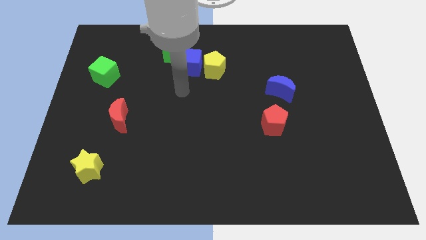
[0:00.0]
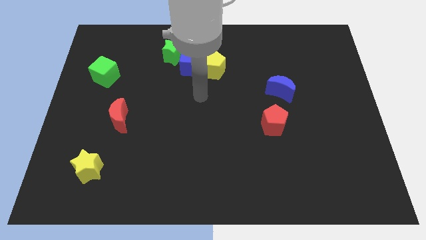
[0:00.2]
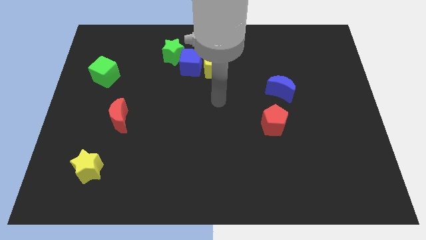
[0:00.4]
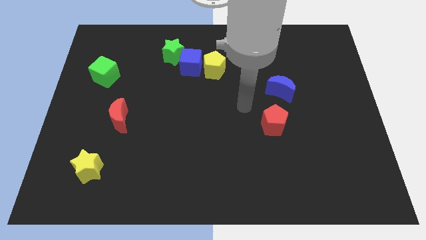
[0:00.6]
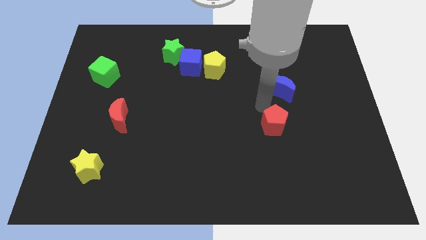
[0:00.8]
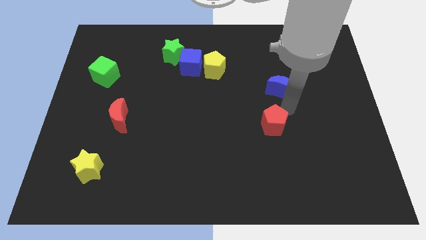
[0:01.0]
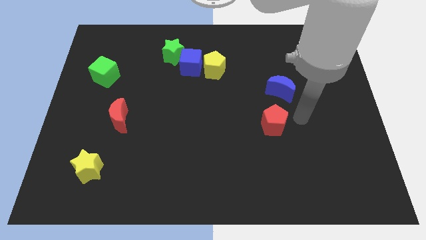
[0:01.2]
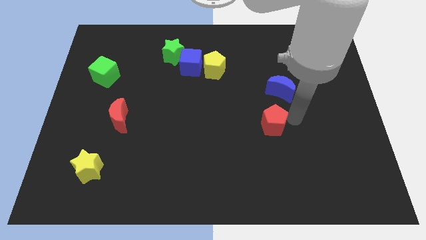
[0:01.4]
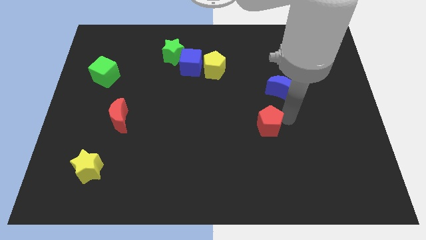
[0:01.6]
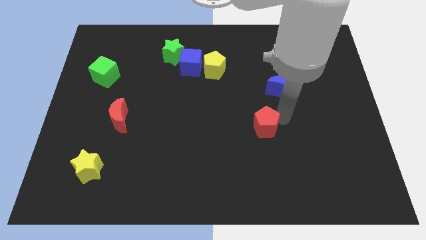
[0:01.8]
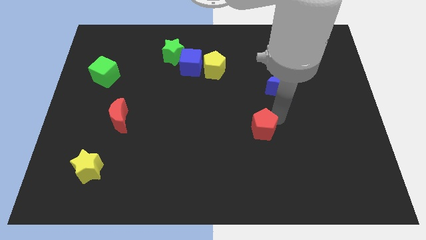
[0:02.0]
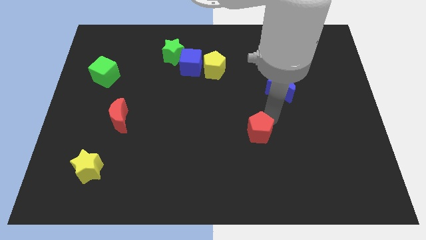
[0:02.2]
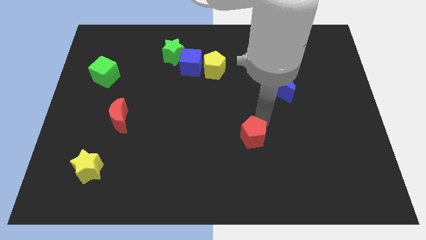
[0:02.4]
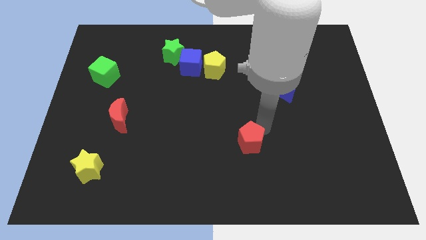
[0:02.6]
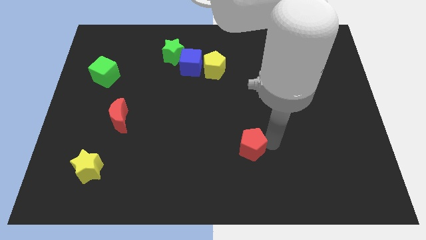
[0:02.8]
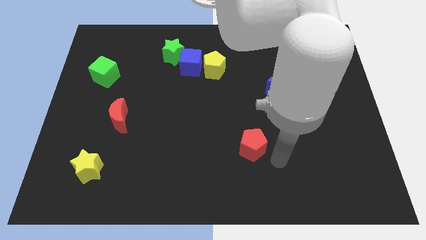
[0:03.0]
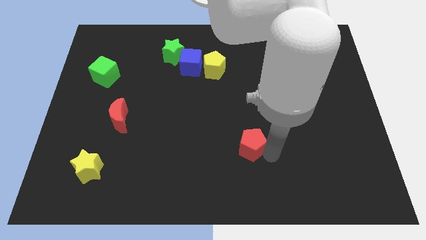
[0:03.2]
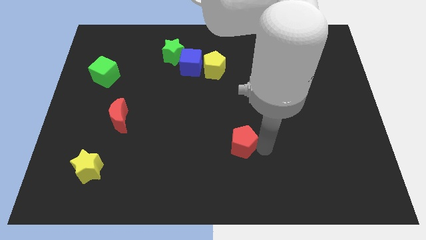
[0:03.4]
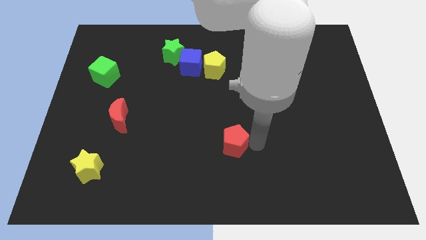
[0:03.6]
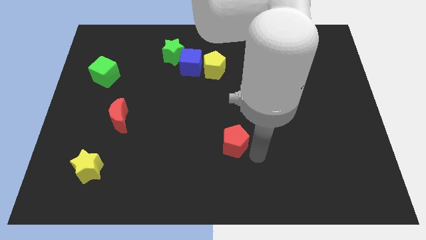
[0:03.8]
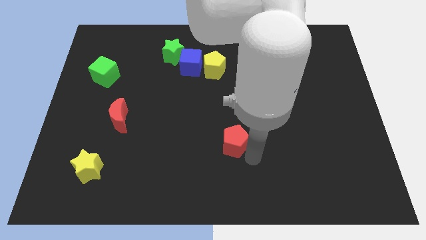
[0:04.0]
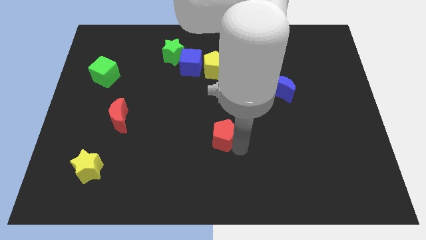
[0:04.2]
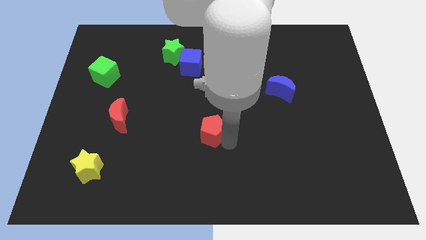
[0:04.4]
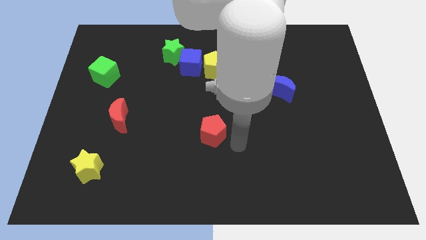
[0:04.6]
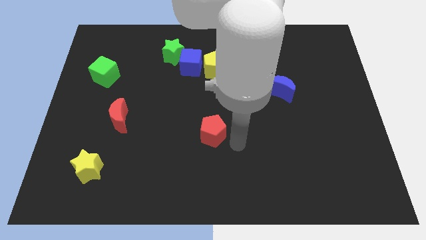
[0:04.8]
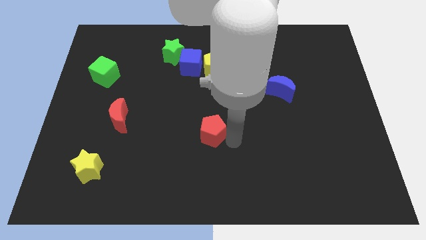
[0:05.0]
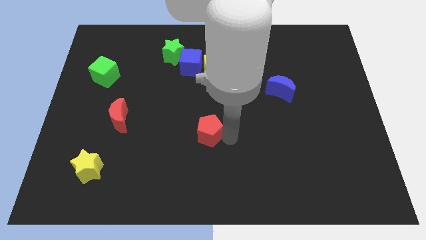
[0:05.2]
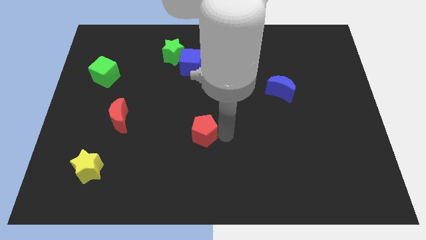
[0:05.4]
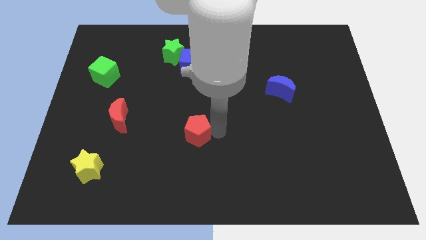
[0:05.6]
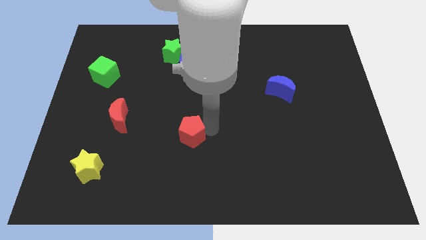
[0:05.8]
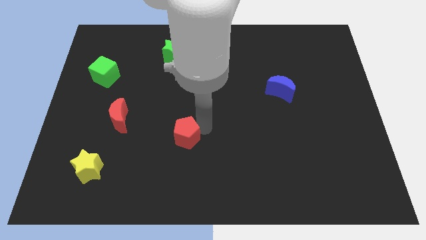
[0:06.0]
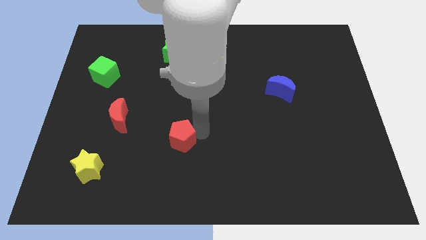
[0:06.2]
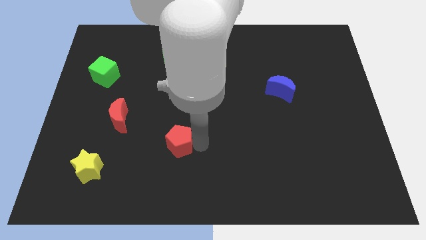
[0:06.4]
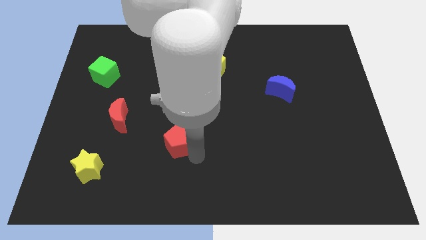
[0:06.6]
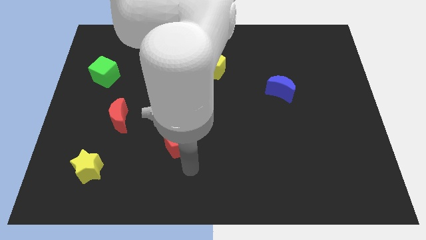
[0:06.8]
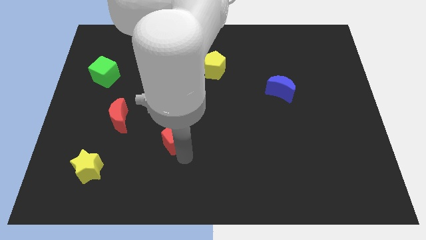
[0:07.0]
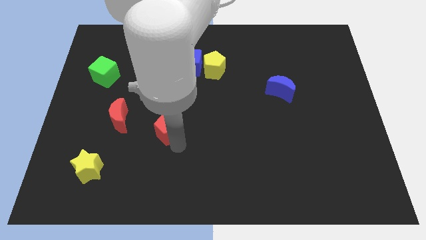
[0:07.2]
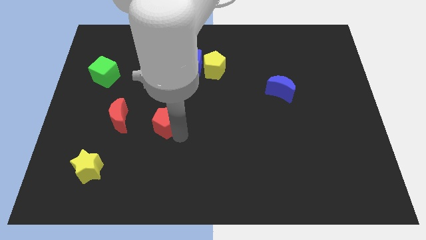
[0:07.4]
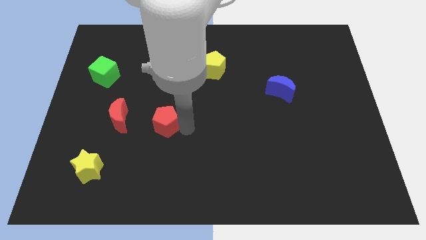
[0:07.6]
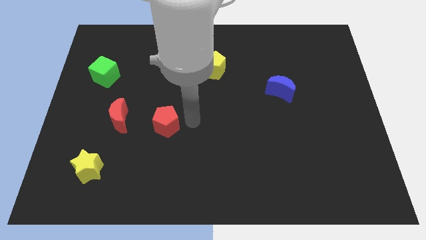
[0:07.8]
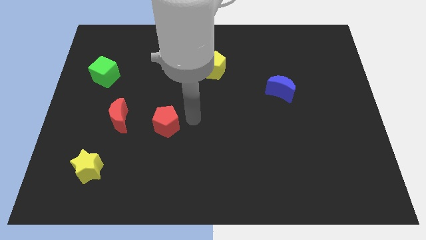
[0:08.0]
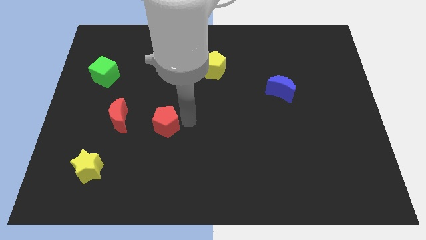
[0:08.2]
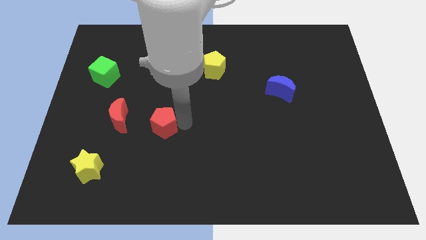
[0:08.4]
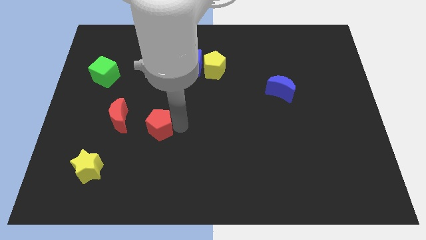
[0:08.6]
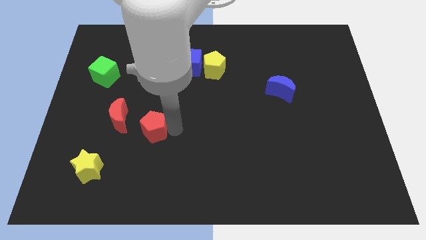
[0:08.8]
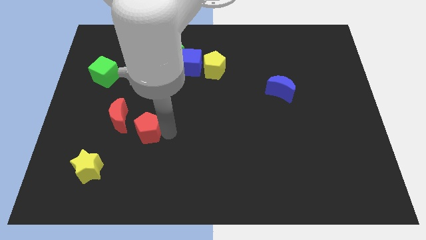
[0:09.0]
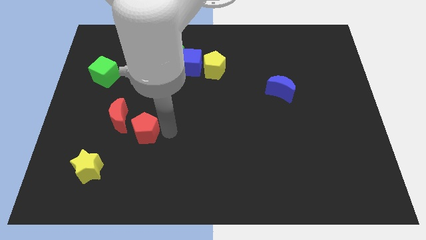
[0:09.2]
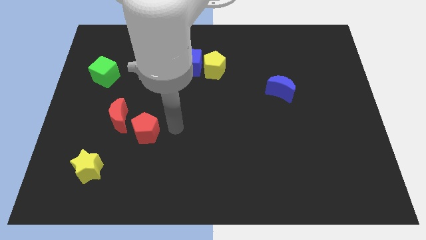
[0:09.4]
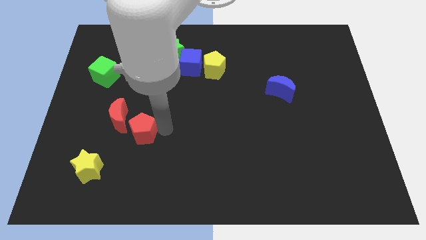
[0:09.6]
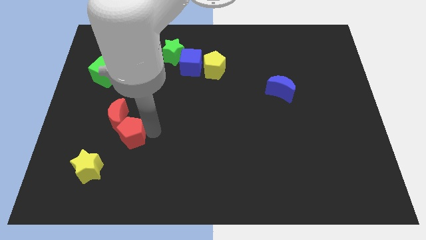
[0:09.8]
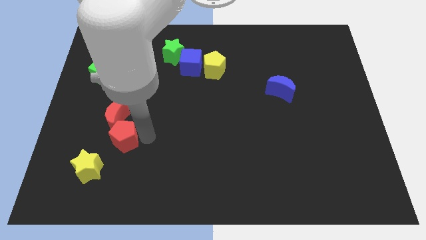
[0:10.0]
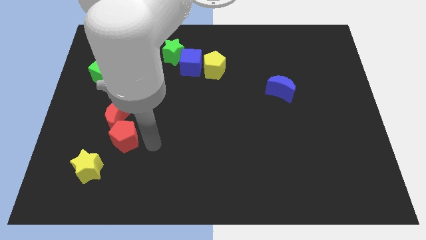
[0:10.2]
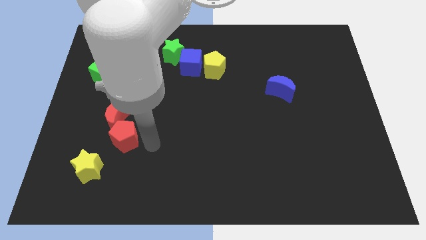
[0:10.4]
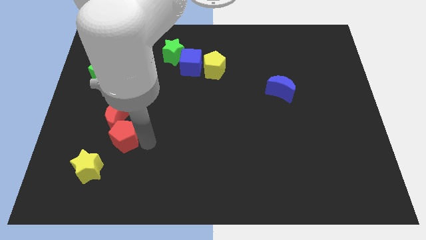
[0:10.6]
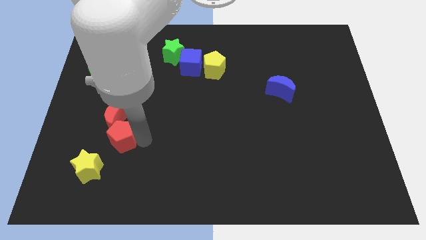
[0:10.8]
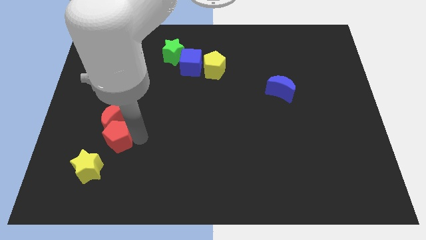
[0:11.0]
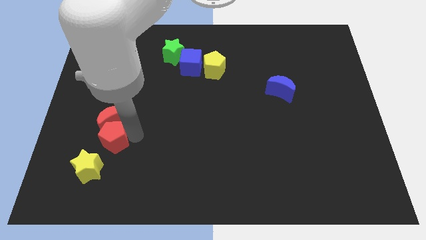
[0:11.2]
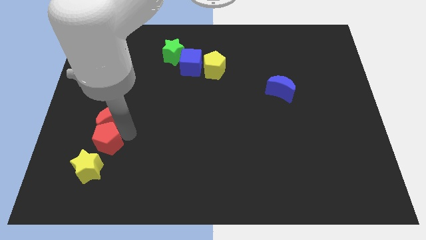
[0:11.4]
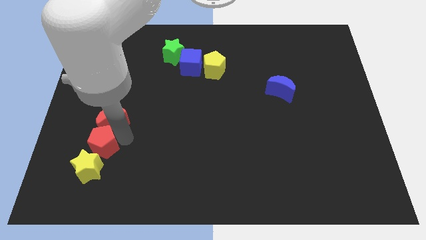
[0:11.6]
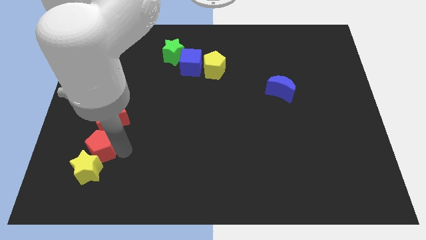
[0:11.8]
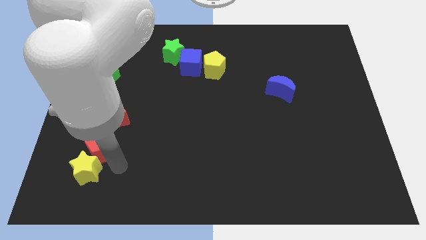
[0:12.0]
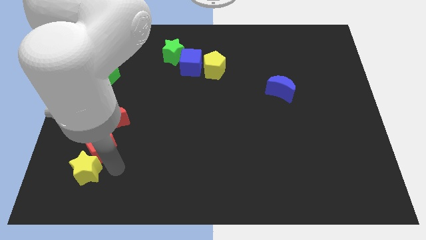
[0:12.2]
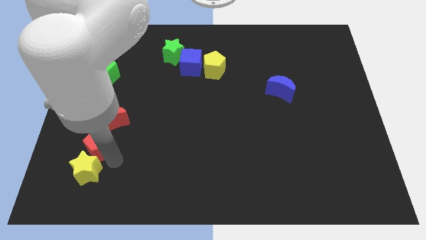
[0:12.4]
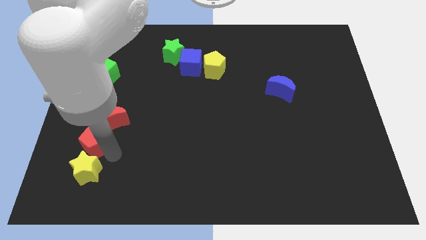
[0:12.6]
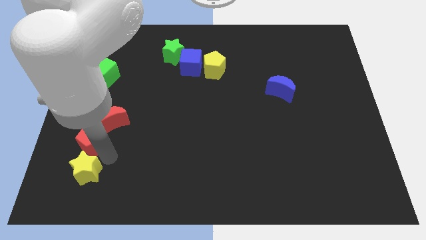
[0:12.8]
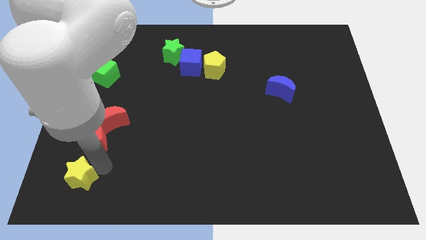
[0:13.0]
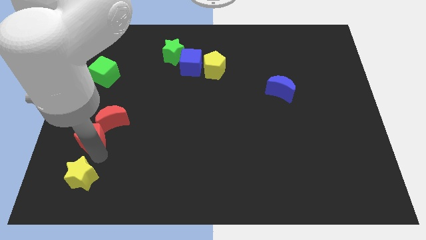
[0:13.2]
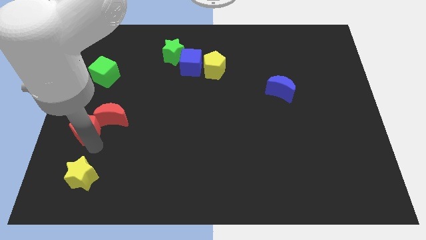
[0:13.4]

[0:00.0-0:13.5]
put the red pentagon to the left side
